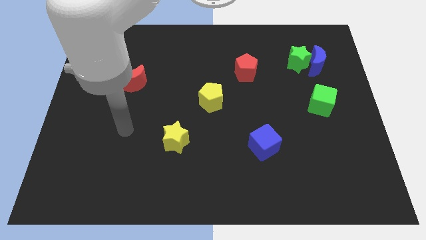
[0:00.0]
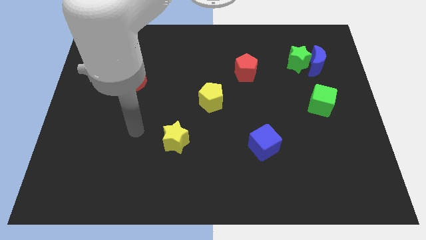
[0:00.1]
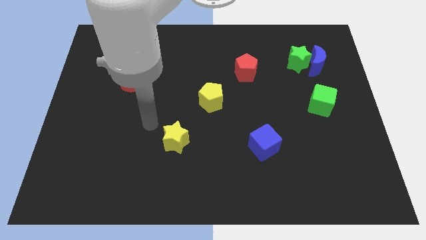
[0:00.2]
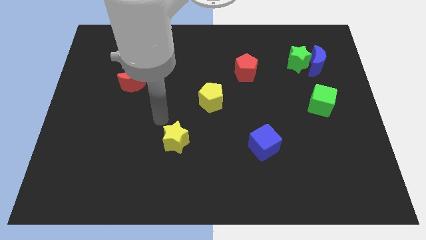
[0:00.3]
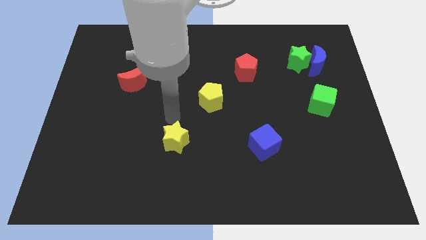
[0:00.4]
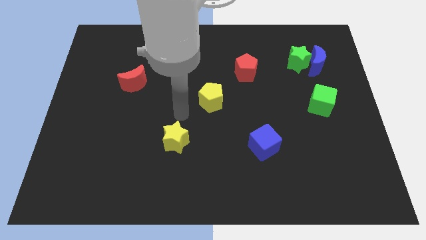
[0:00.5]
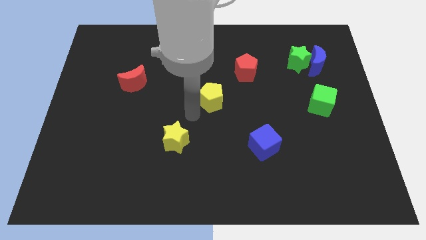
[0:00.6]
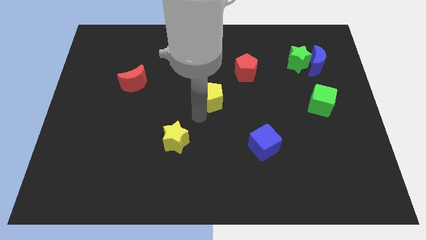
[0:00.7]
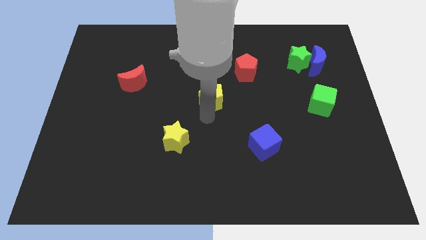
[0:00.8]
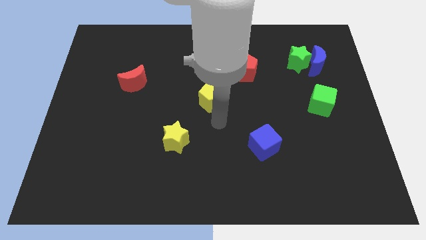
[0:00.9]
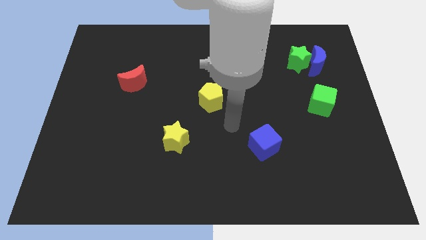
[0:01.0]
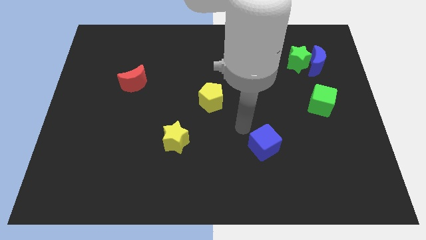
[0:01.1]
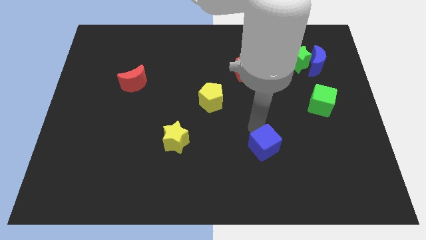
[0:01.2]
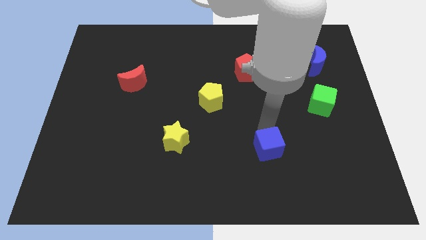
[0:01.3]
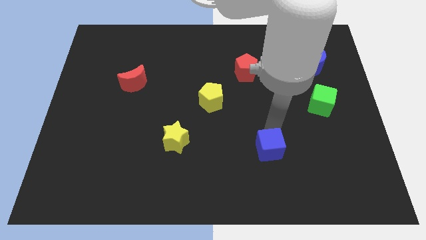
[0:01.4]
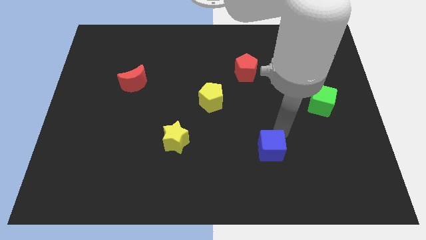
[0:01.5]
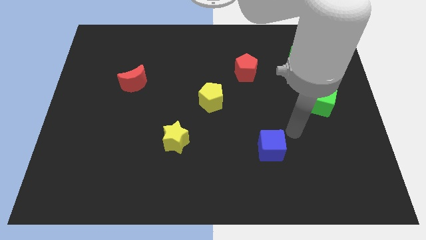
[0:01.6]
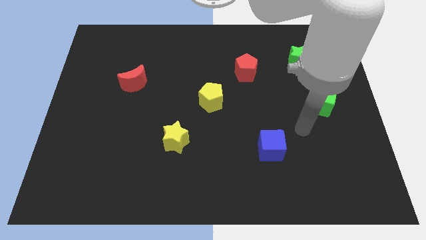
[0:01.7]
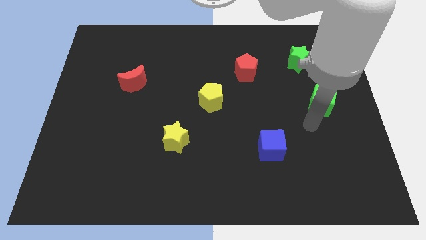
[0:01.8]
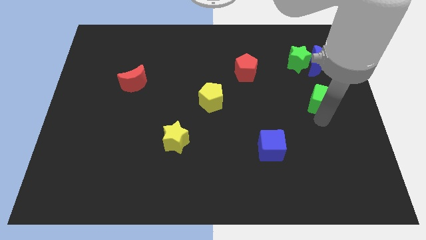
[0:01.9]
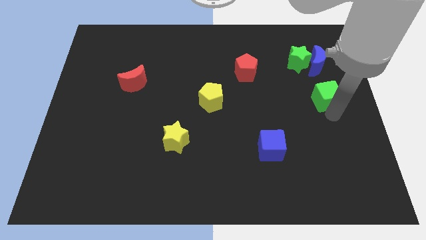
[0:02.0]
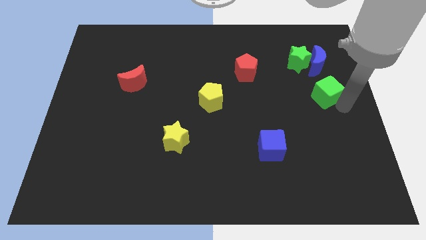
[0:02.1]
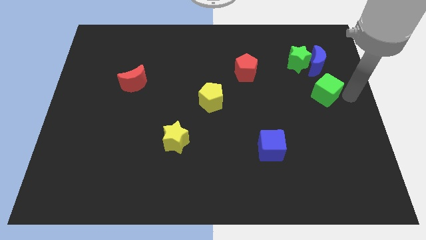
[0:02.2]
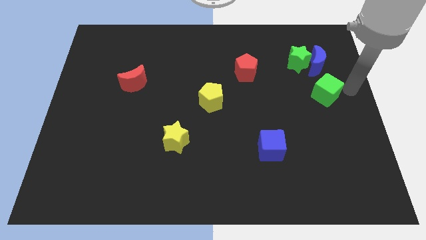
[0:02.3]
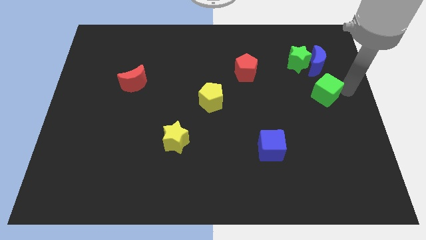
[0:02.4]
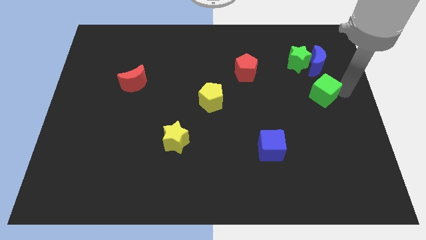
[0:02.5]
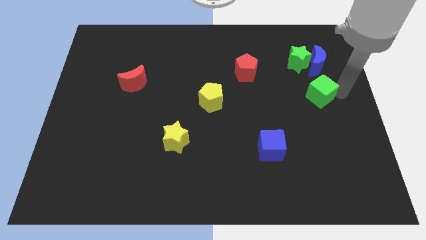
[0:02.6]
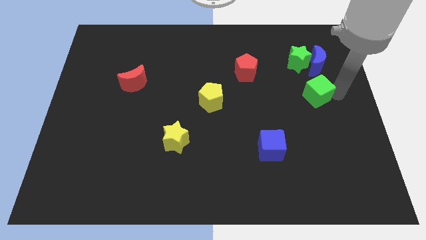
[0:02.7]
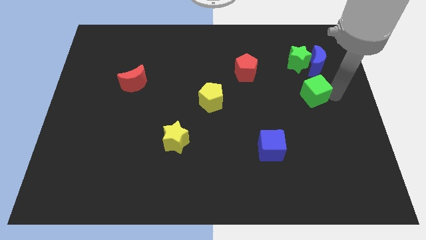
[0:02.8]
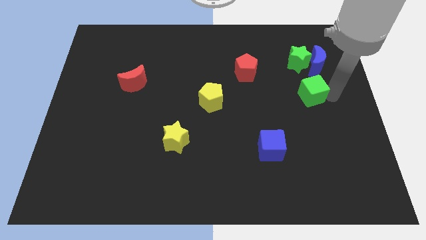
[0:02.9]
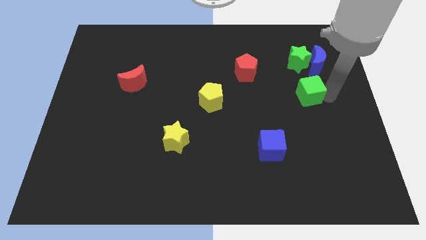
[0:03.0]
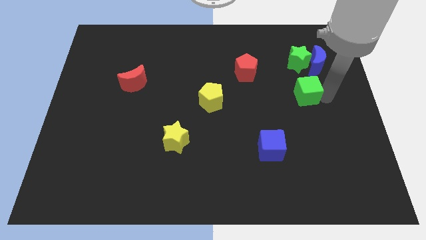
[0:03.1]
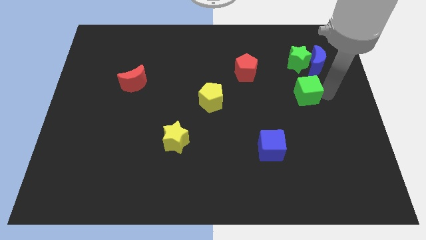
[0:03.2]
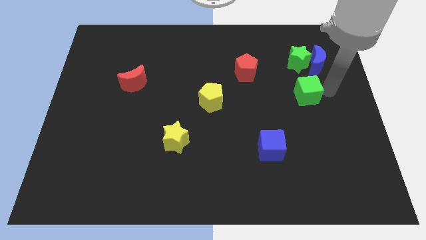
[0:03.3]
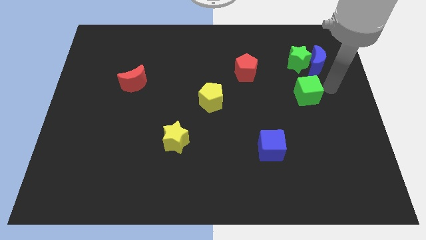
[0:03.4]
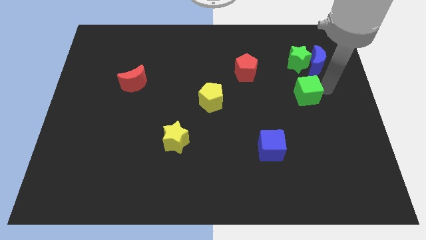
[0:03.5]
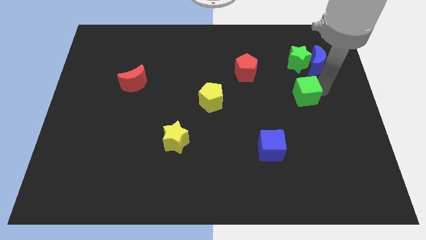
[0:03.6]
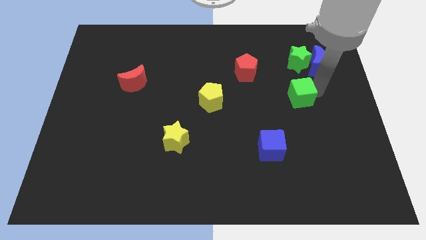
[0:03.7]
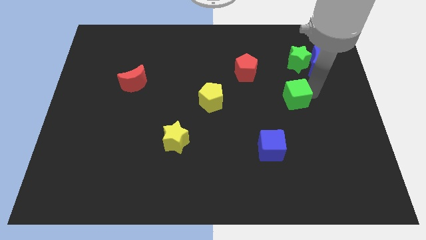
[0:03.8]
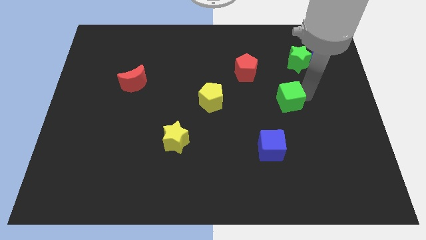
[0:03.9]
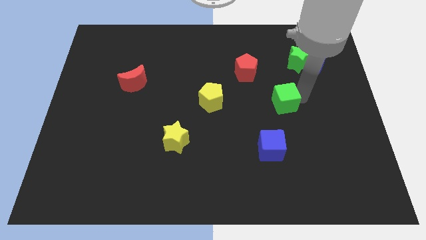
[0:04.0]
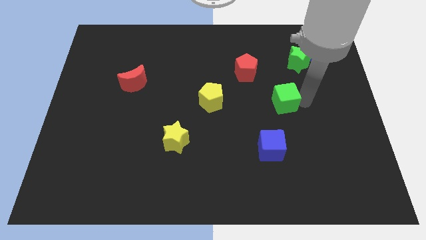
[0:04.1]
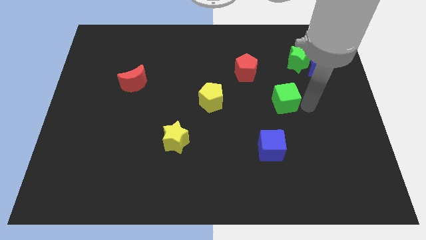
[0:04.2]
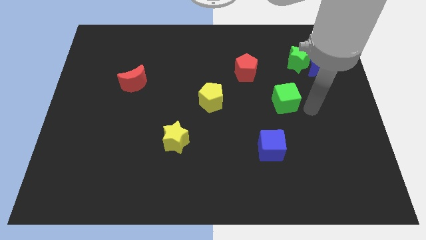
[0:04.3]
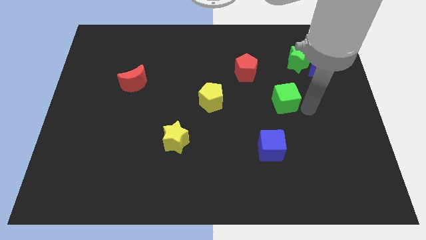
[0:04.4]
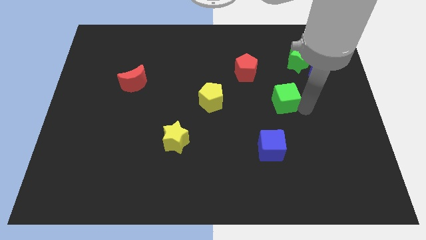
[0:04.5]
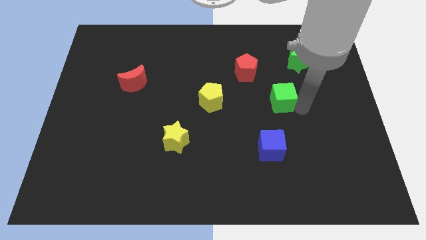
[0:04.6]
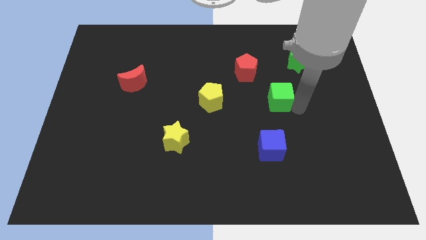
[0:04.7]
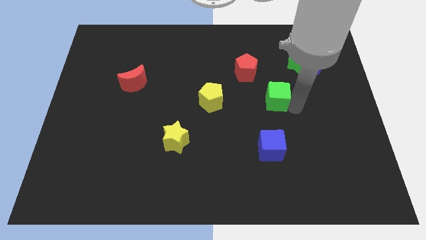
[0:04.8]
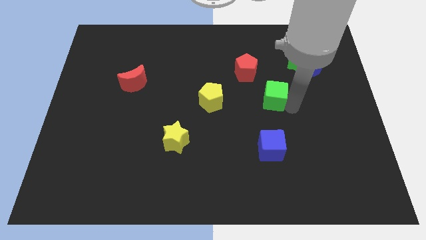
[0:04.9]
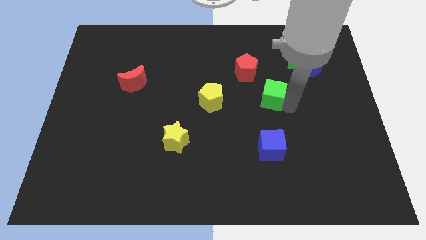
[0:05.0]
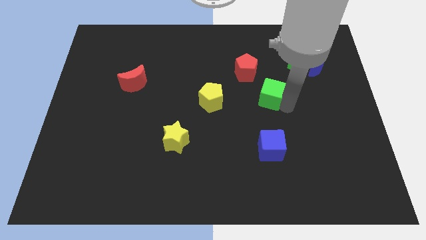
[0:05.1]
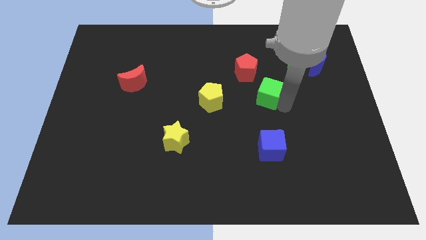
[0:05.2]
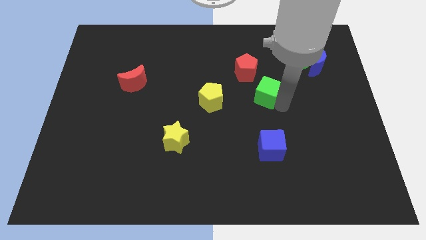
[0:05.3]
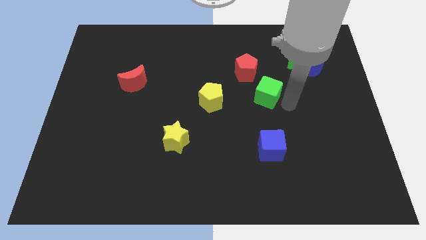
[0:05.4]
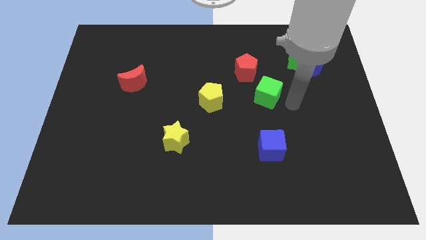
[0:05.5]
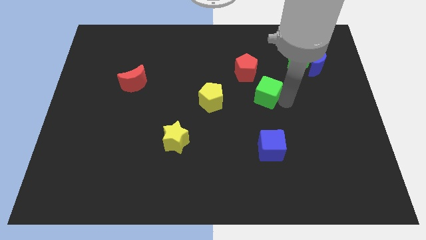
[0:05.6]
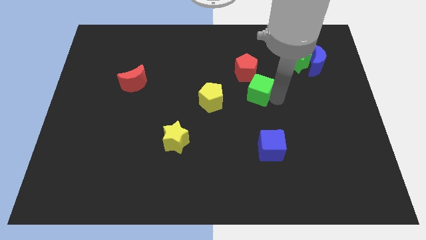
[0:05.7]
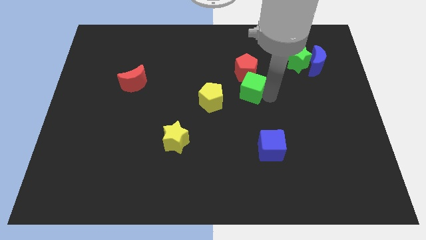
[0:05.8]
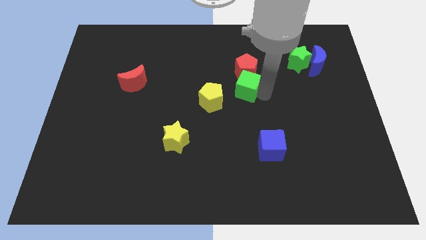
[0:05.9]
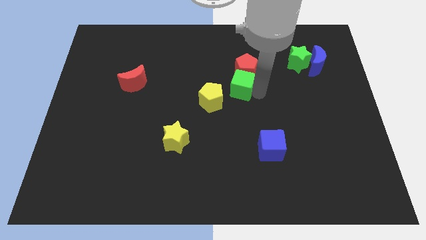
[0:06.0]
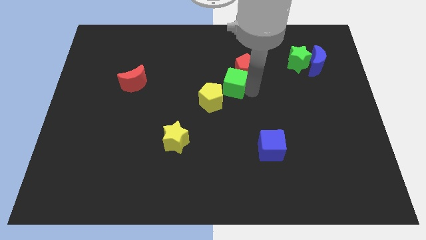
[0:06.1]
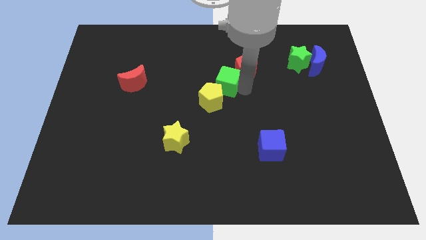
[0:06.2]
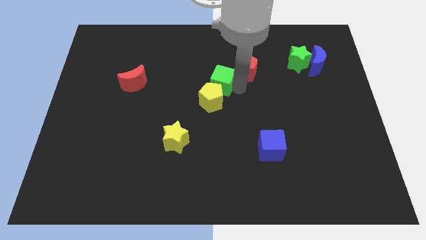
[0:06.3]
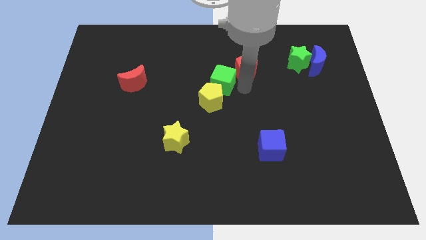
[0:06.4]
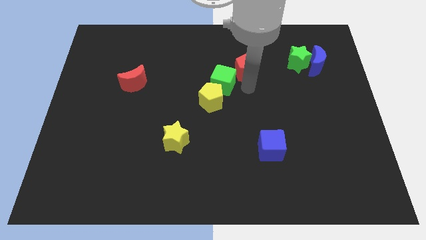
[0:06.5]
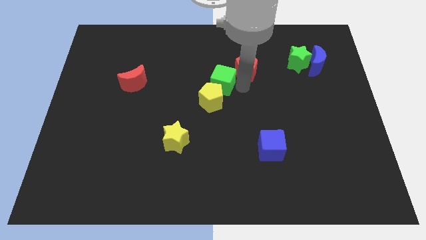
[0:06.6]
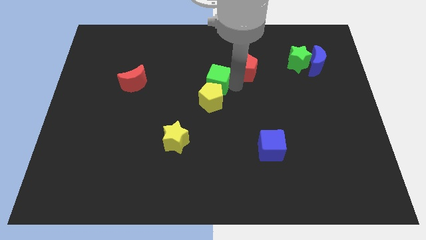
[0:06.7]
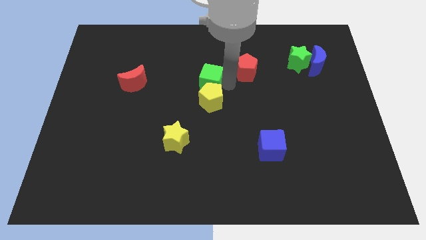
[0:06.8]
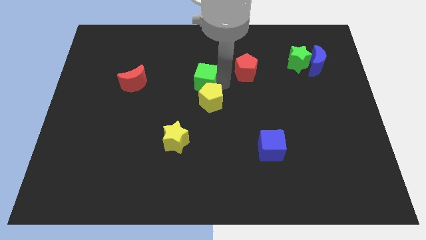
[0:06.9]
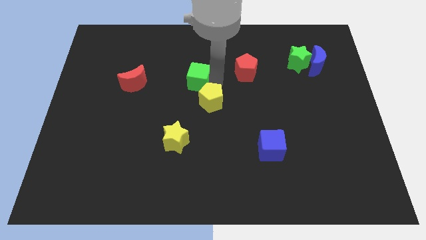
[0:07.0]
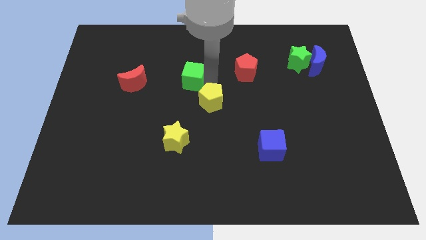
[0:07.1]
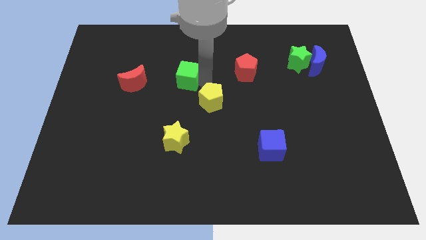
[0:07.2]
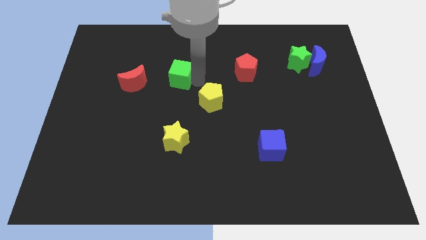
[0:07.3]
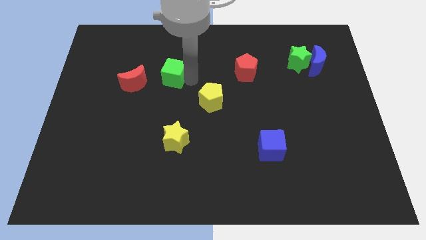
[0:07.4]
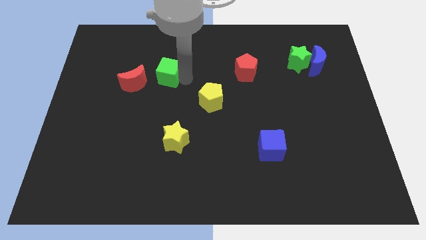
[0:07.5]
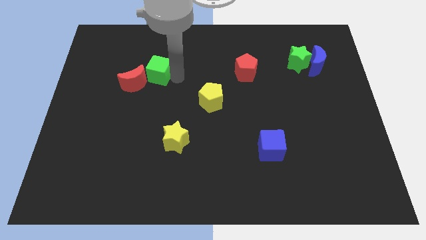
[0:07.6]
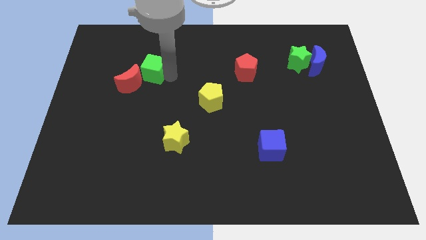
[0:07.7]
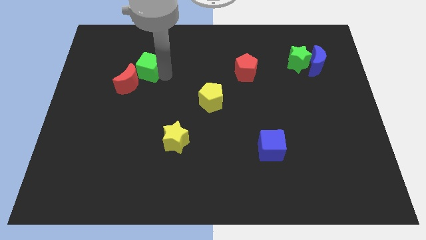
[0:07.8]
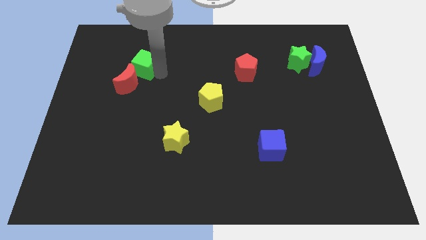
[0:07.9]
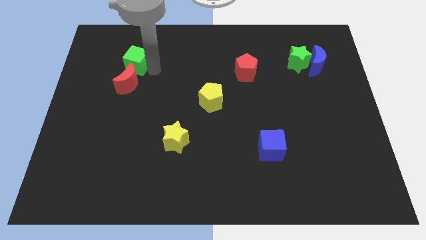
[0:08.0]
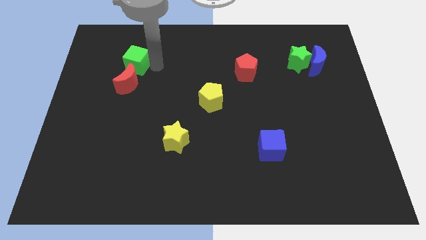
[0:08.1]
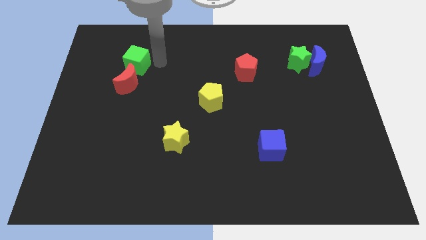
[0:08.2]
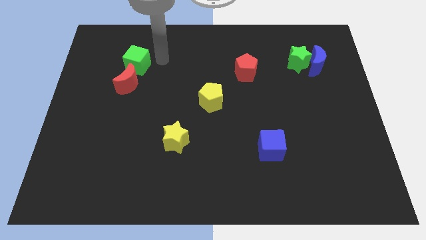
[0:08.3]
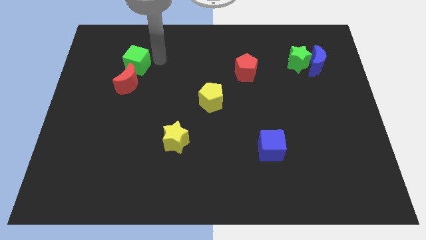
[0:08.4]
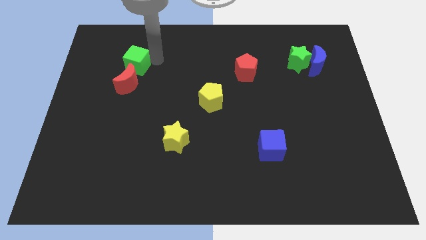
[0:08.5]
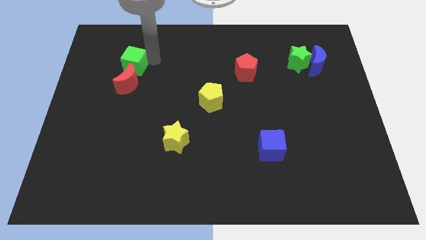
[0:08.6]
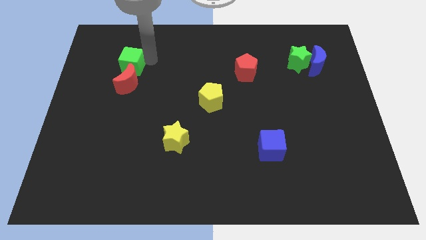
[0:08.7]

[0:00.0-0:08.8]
move the green cube diagonally up and to the left of the red moon
